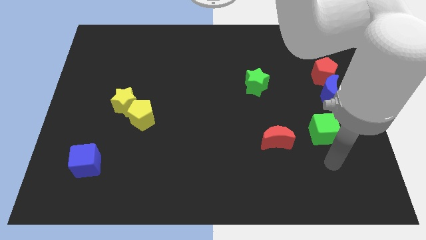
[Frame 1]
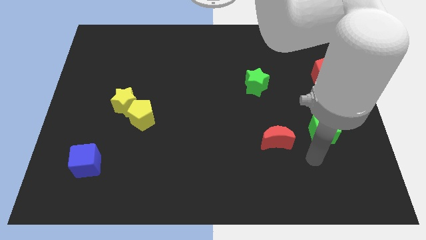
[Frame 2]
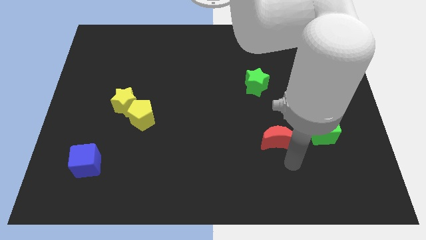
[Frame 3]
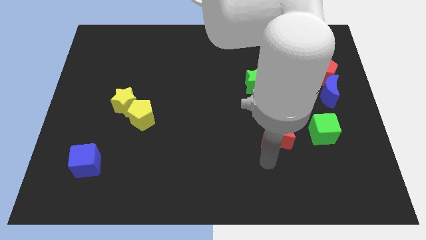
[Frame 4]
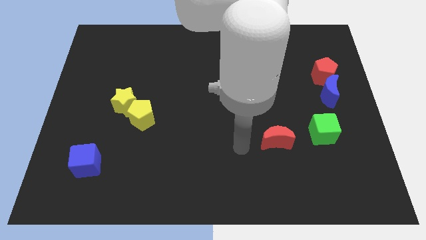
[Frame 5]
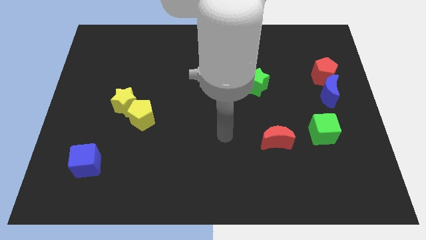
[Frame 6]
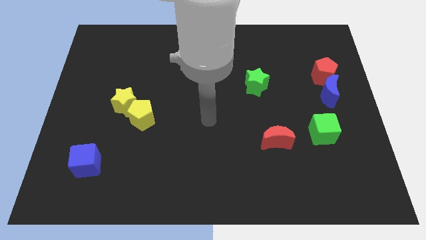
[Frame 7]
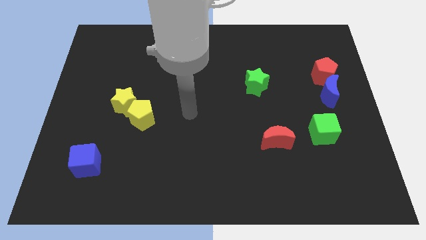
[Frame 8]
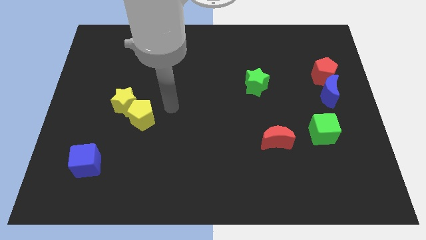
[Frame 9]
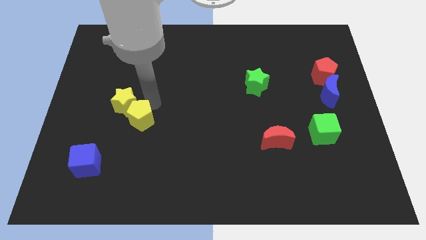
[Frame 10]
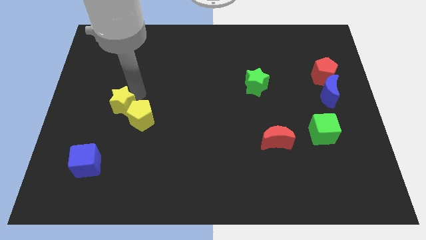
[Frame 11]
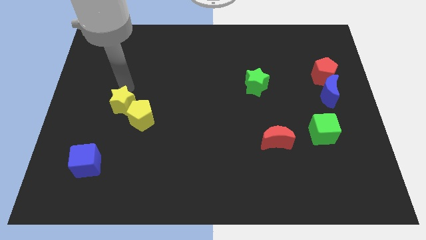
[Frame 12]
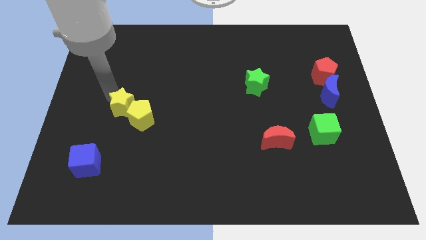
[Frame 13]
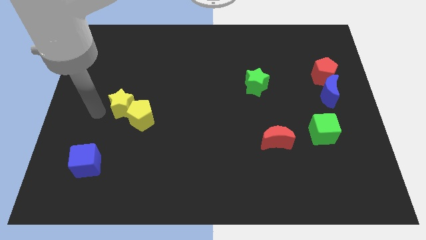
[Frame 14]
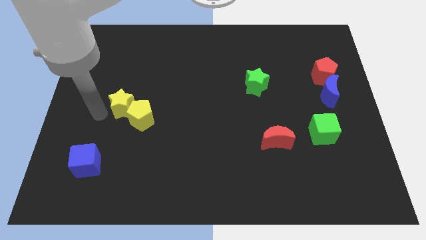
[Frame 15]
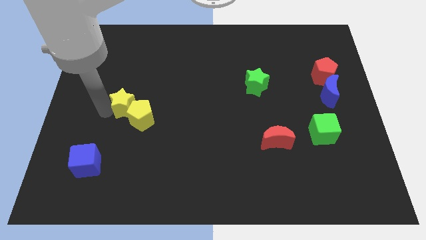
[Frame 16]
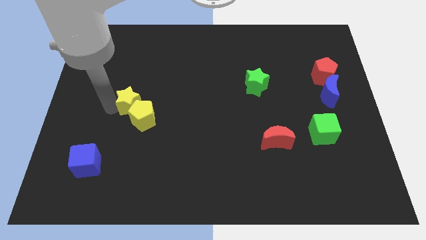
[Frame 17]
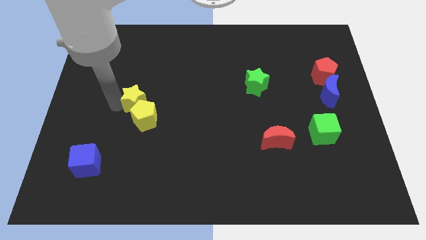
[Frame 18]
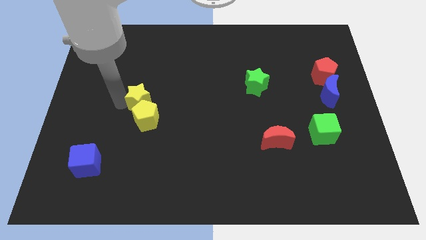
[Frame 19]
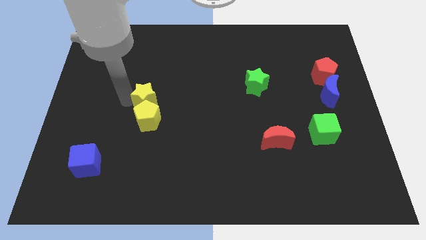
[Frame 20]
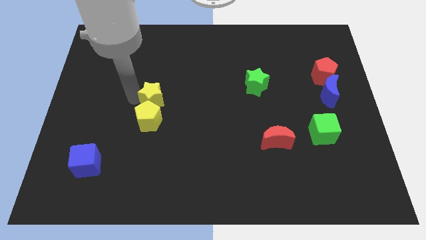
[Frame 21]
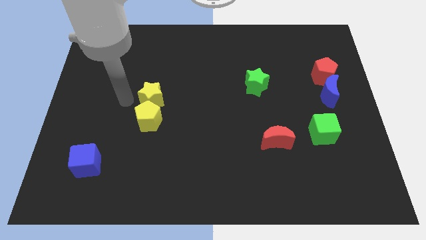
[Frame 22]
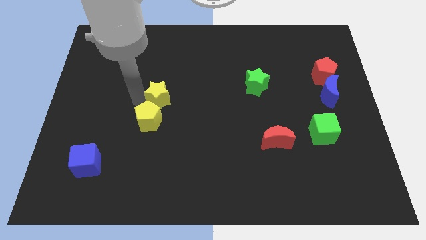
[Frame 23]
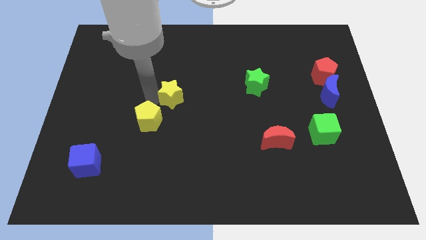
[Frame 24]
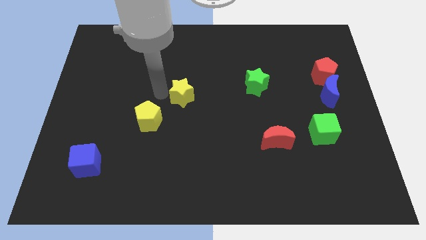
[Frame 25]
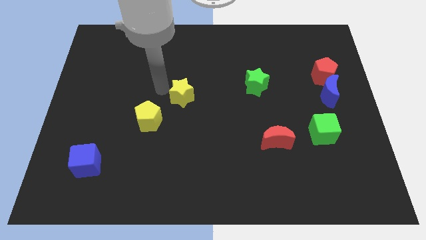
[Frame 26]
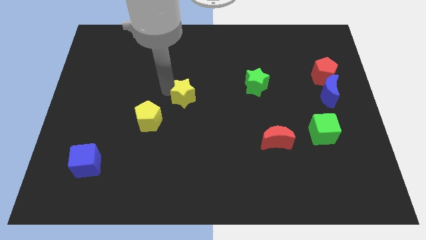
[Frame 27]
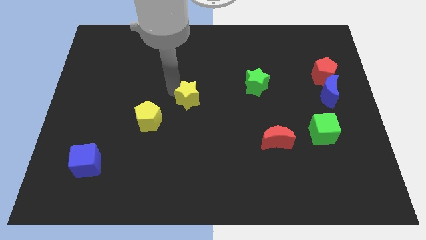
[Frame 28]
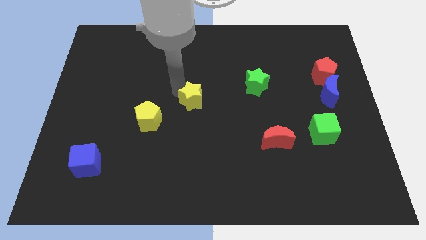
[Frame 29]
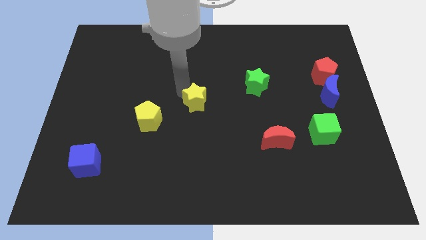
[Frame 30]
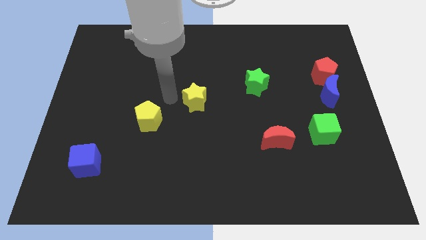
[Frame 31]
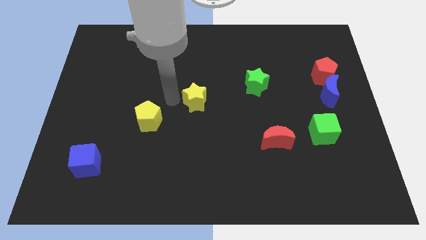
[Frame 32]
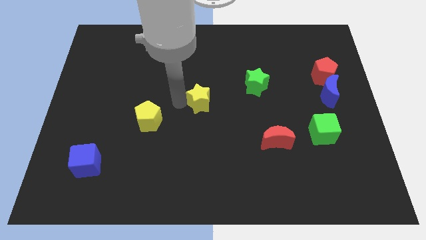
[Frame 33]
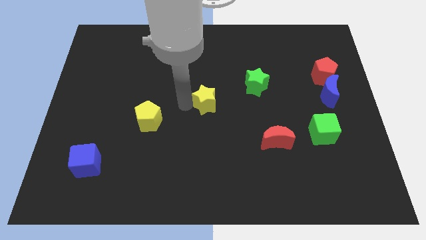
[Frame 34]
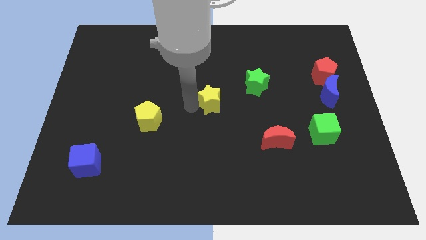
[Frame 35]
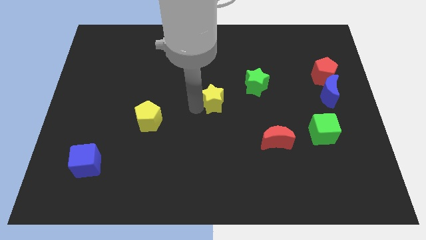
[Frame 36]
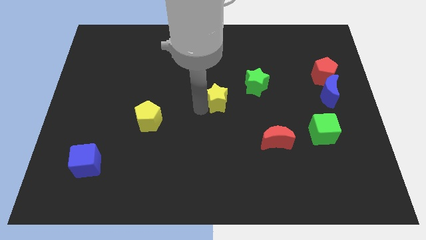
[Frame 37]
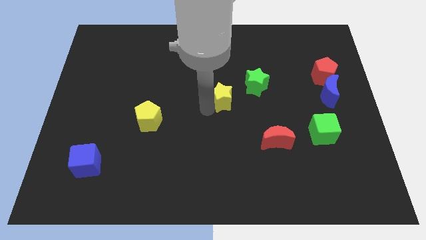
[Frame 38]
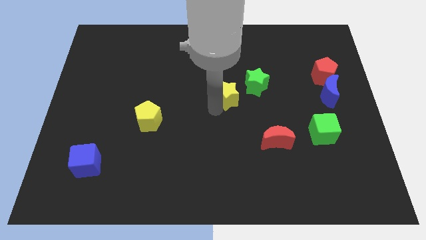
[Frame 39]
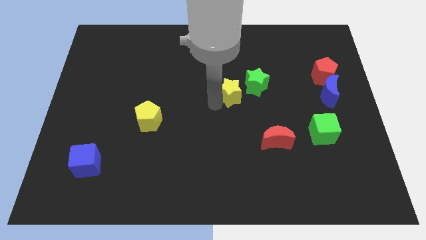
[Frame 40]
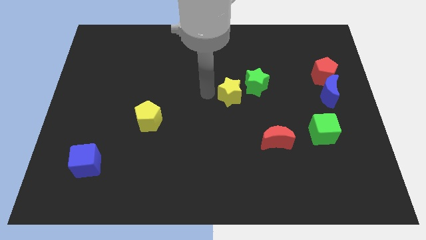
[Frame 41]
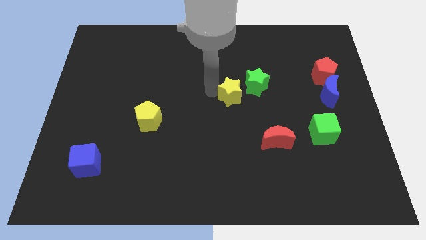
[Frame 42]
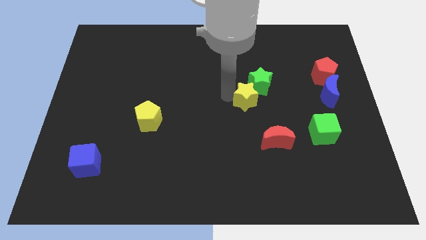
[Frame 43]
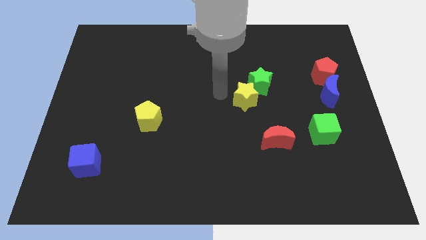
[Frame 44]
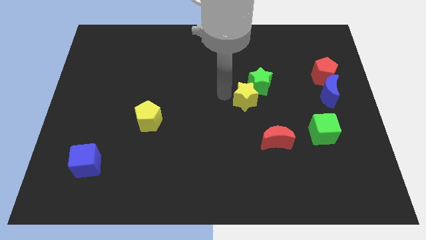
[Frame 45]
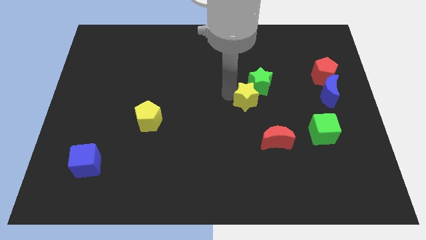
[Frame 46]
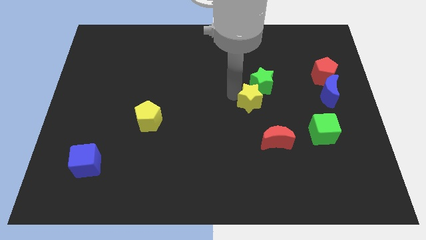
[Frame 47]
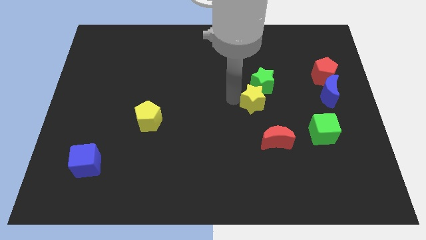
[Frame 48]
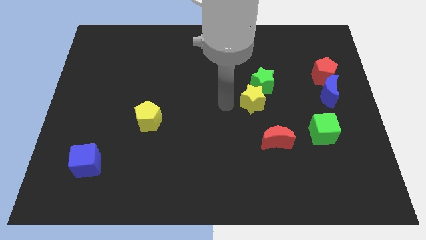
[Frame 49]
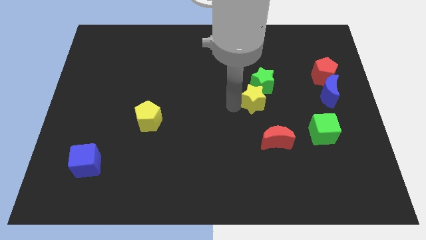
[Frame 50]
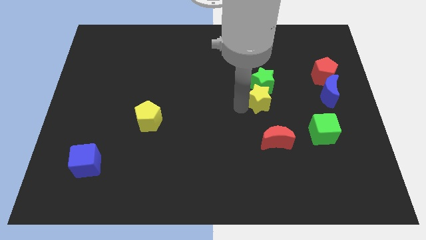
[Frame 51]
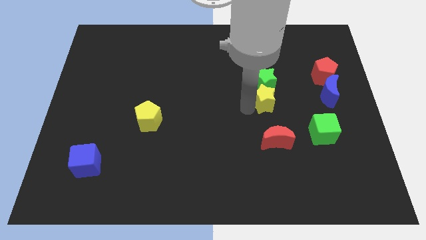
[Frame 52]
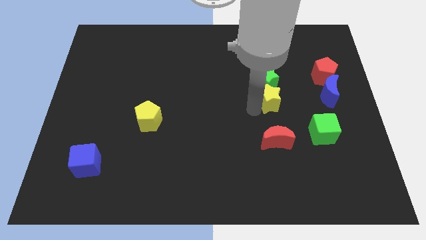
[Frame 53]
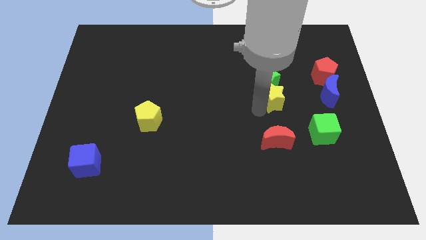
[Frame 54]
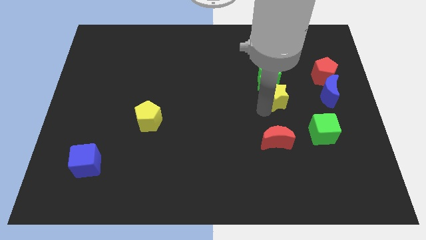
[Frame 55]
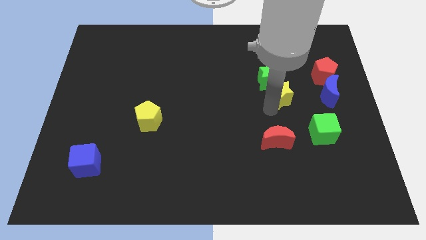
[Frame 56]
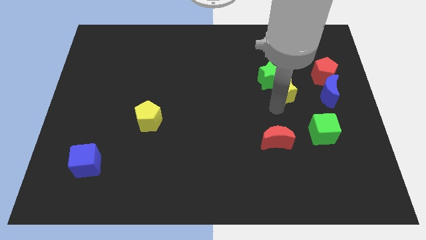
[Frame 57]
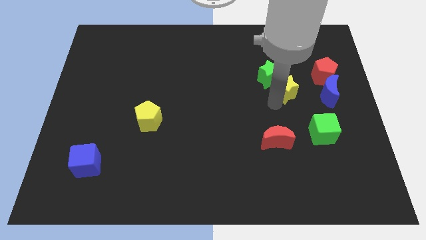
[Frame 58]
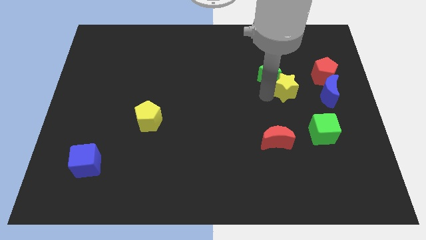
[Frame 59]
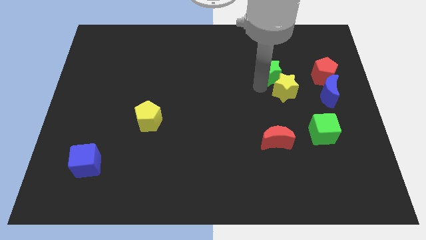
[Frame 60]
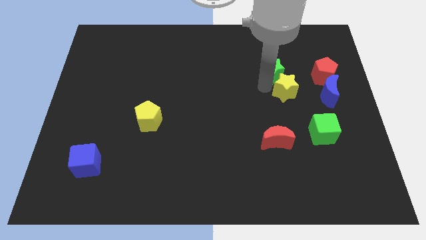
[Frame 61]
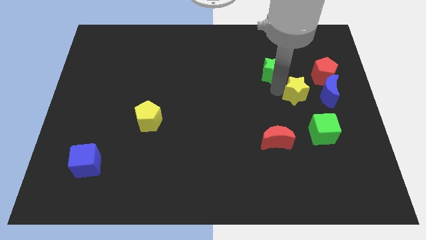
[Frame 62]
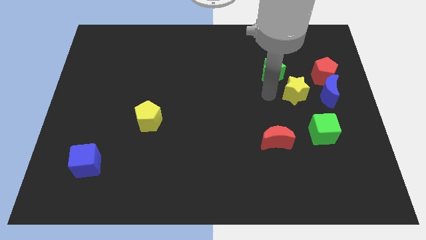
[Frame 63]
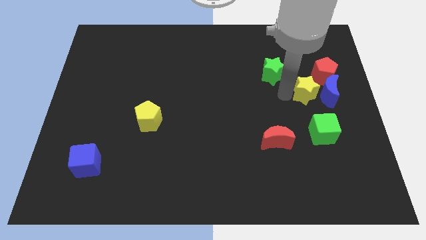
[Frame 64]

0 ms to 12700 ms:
put the yellow star to the blue moon

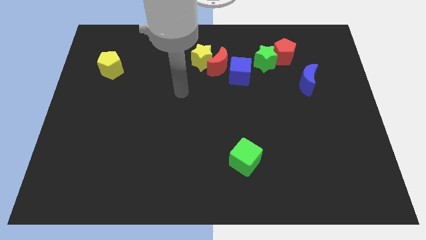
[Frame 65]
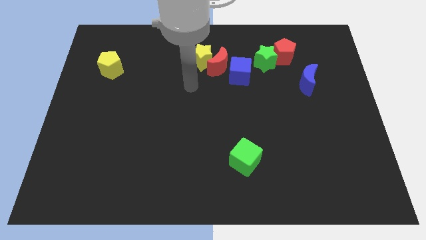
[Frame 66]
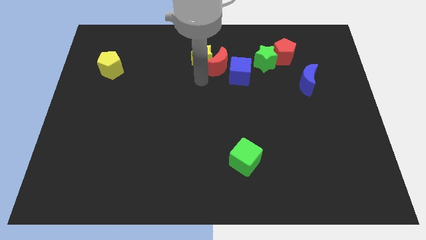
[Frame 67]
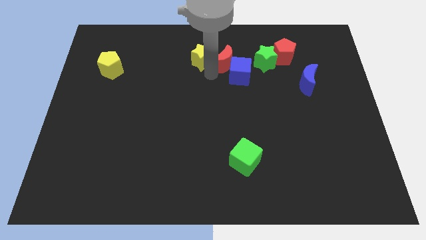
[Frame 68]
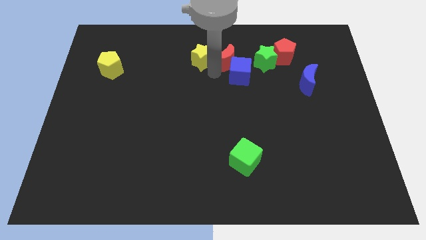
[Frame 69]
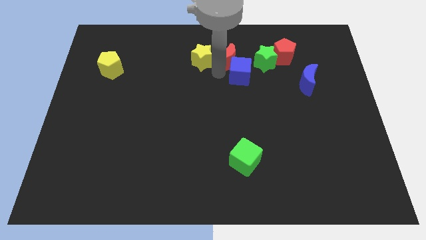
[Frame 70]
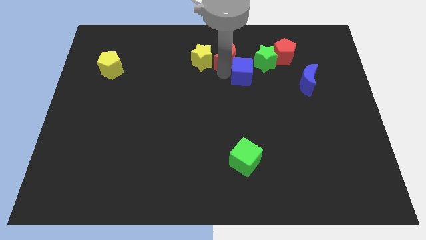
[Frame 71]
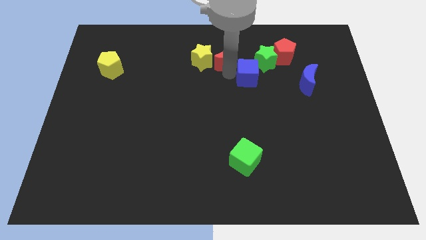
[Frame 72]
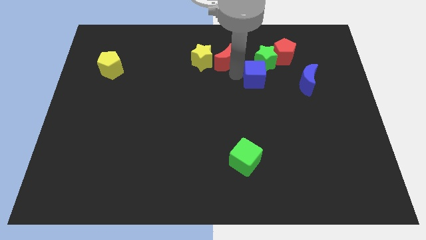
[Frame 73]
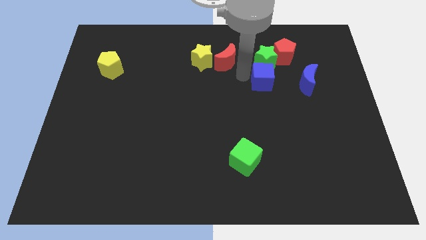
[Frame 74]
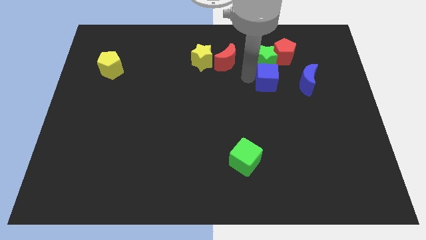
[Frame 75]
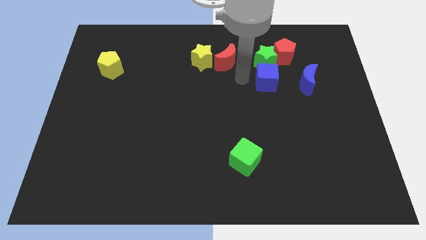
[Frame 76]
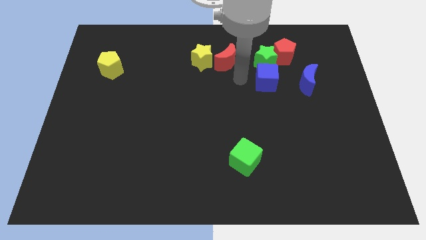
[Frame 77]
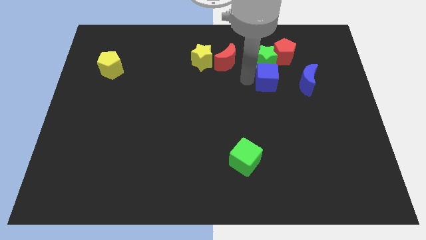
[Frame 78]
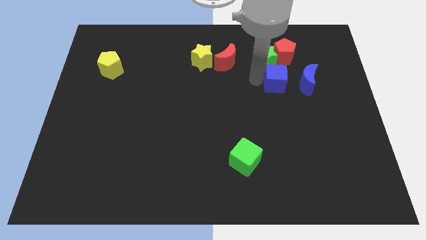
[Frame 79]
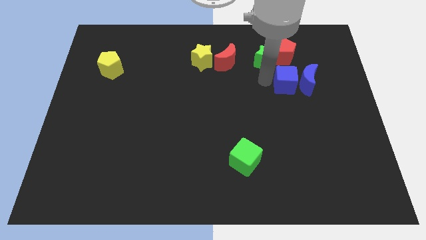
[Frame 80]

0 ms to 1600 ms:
put the blue cube next to the blue moon
